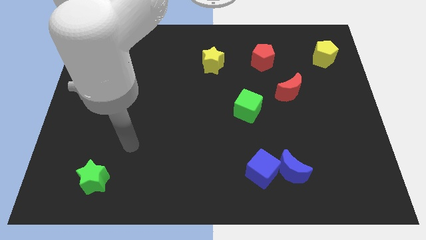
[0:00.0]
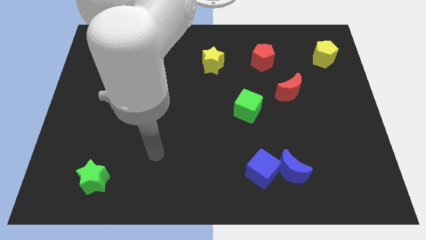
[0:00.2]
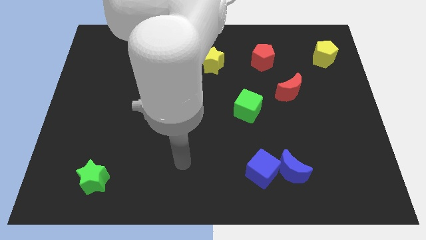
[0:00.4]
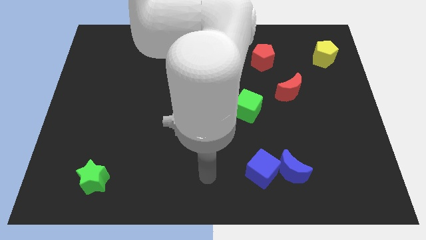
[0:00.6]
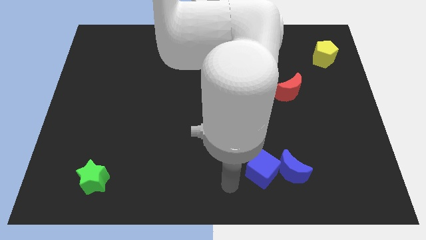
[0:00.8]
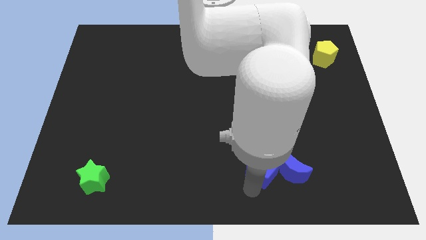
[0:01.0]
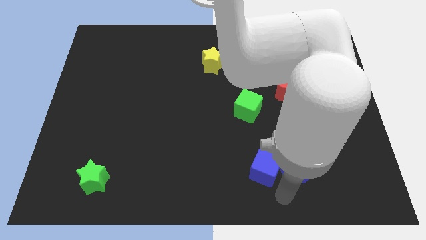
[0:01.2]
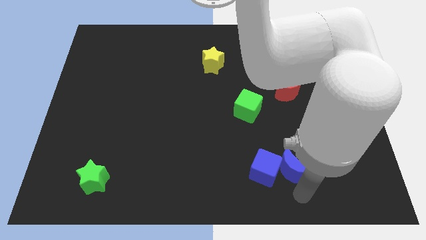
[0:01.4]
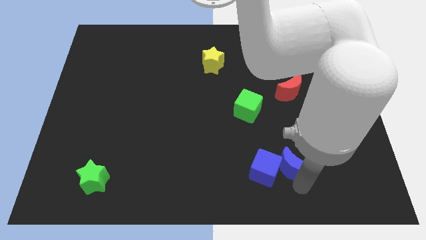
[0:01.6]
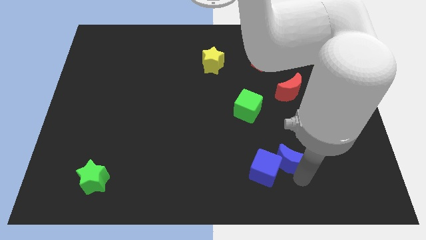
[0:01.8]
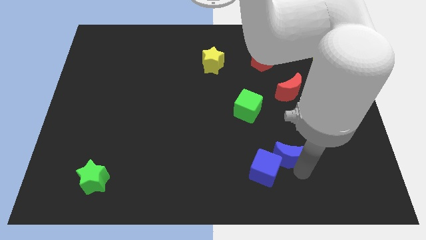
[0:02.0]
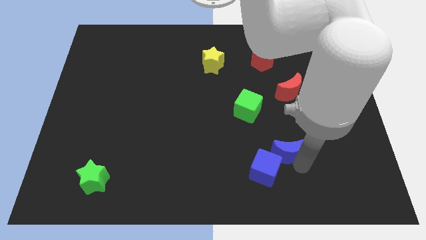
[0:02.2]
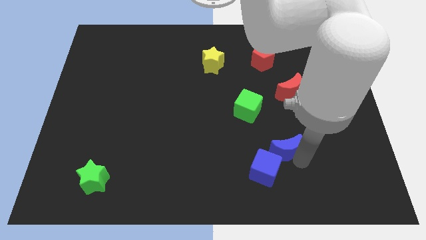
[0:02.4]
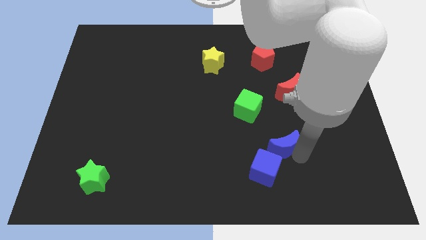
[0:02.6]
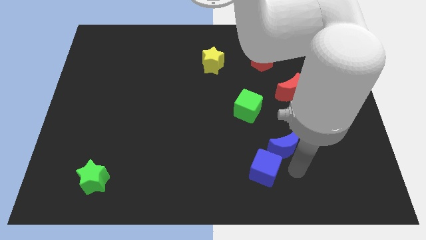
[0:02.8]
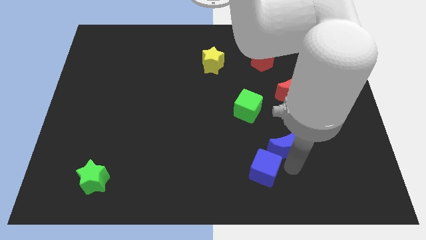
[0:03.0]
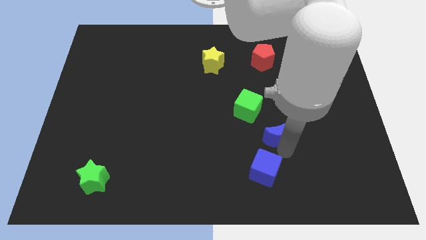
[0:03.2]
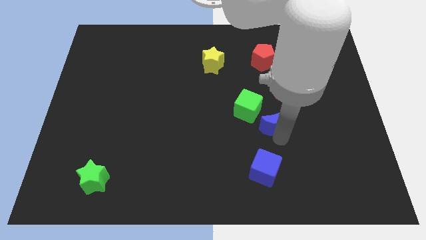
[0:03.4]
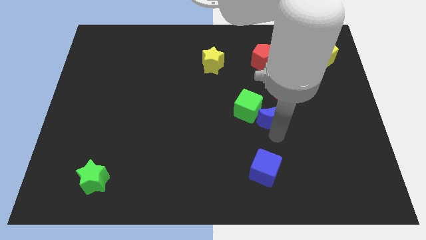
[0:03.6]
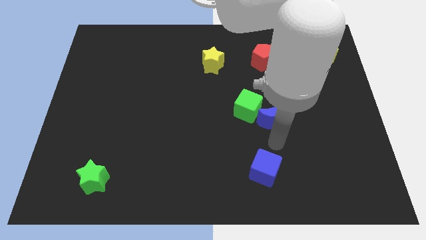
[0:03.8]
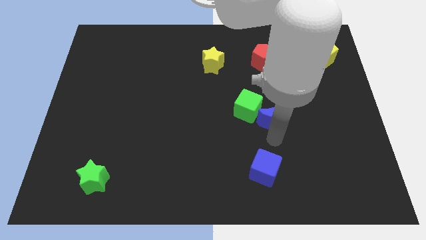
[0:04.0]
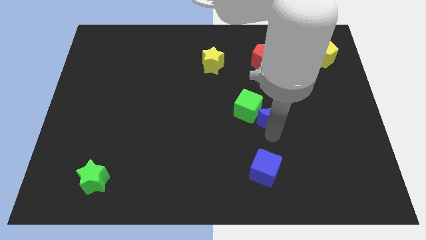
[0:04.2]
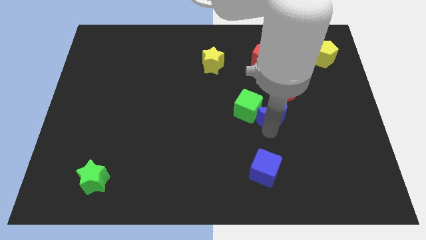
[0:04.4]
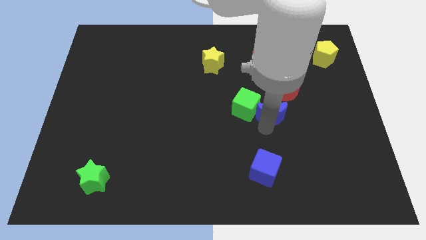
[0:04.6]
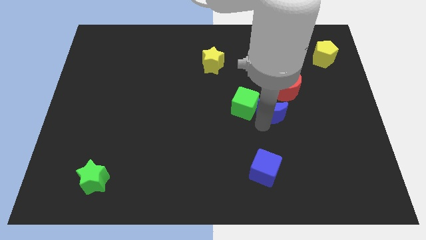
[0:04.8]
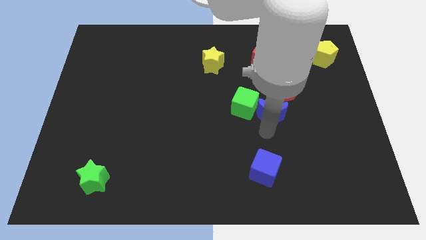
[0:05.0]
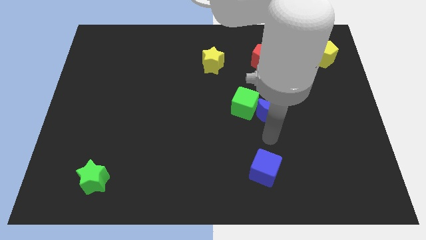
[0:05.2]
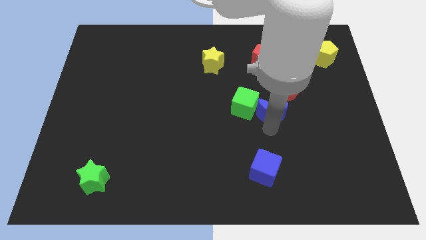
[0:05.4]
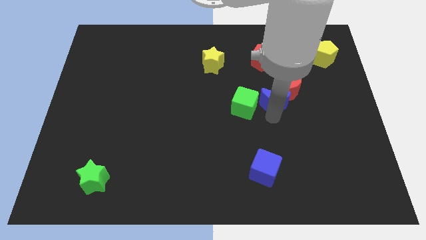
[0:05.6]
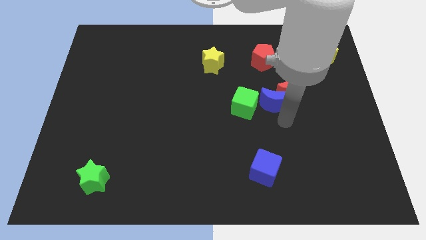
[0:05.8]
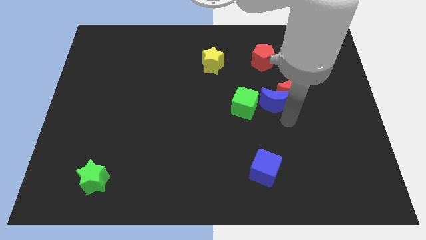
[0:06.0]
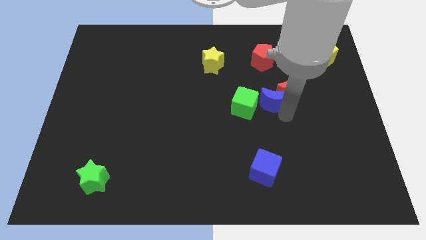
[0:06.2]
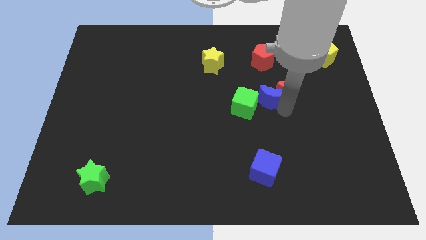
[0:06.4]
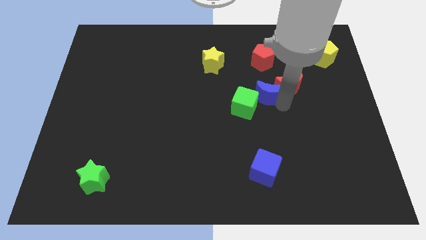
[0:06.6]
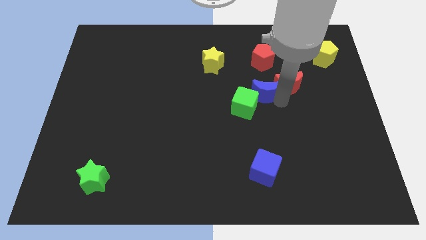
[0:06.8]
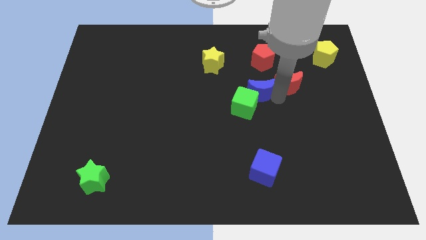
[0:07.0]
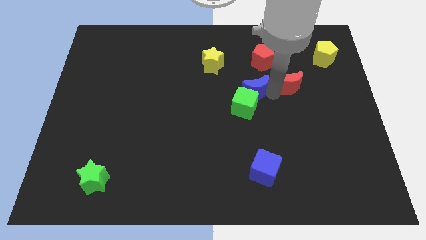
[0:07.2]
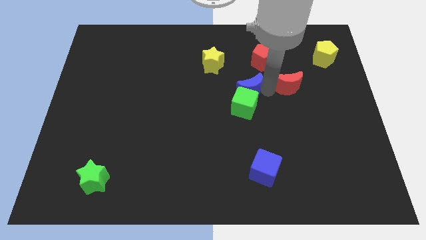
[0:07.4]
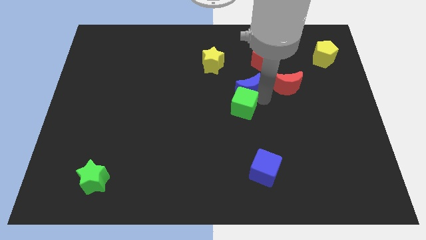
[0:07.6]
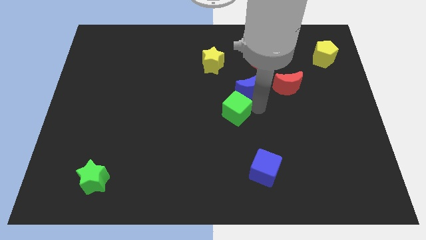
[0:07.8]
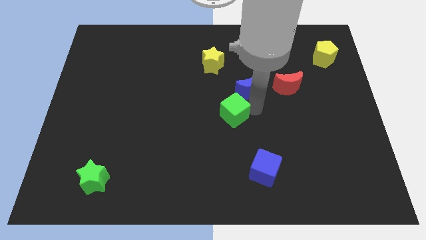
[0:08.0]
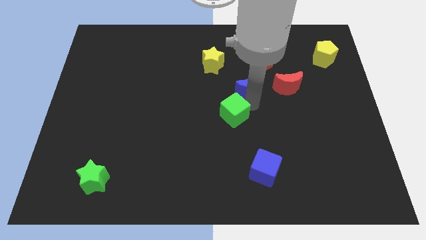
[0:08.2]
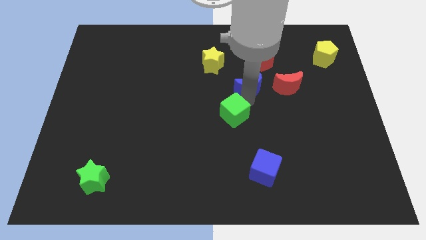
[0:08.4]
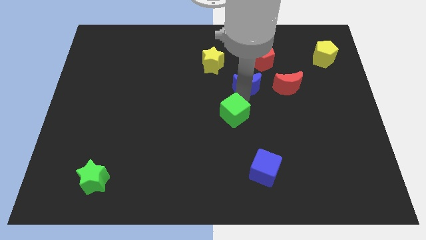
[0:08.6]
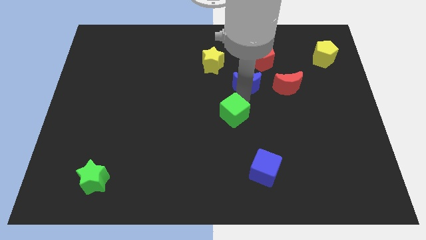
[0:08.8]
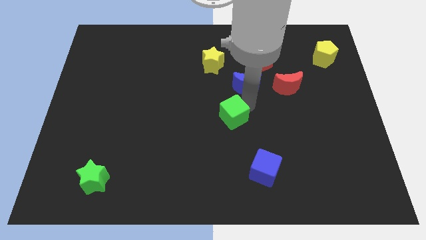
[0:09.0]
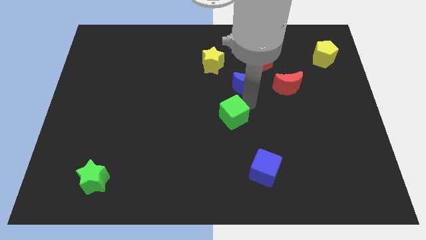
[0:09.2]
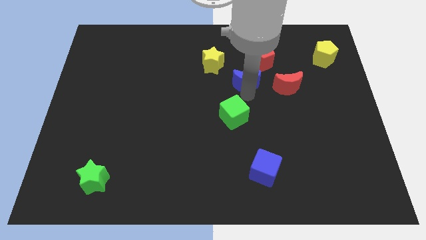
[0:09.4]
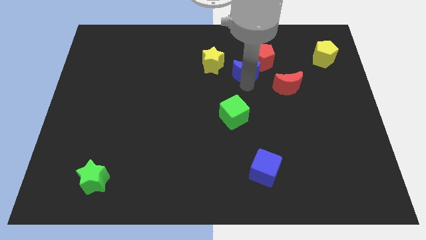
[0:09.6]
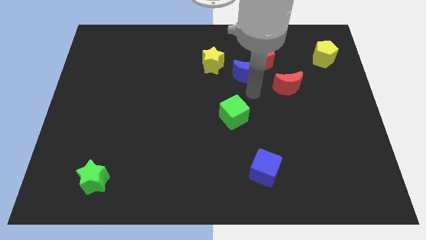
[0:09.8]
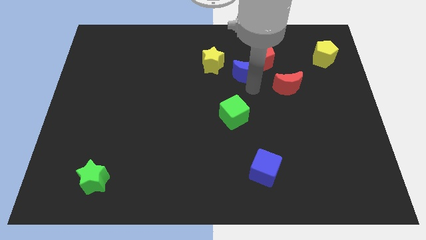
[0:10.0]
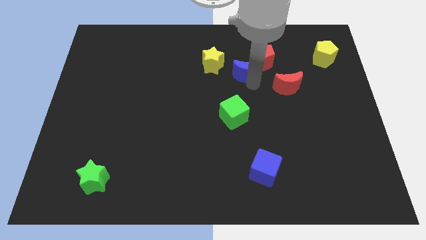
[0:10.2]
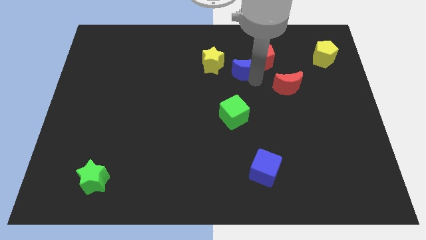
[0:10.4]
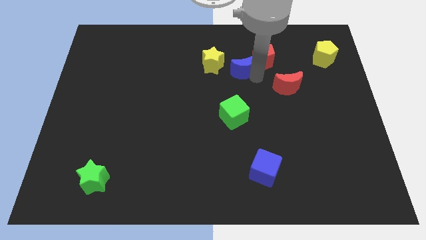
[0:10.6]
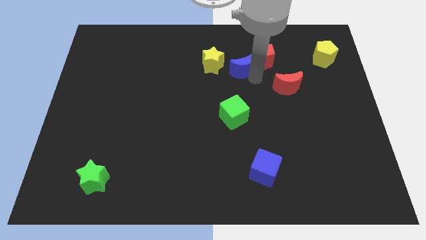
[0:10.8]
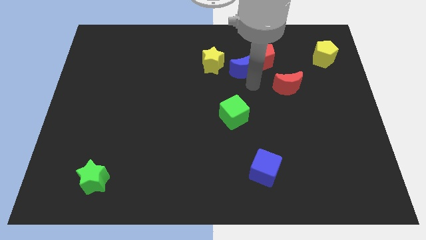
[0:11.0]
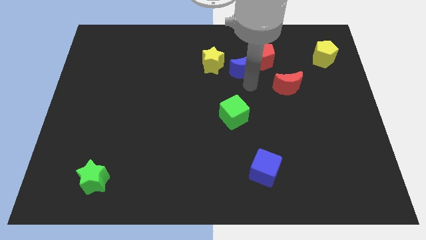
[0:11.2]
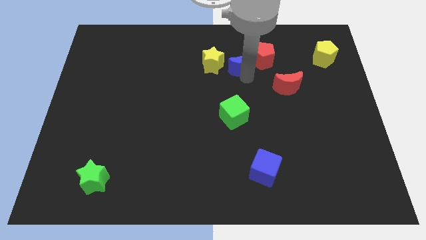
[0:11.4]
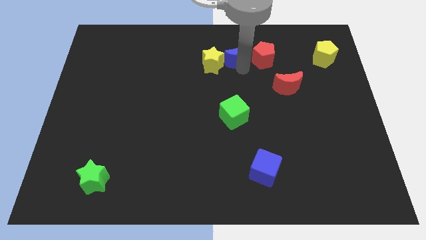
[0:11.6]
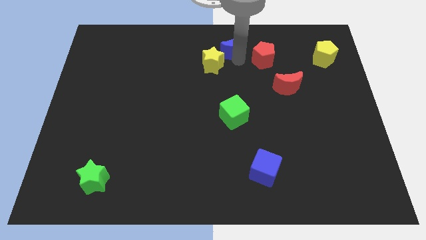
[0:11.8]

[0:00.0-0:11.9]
push the blue moon to the top

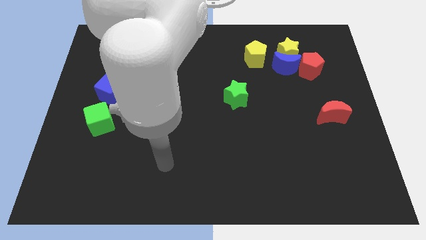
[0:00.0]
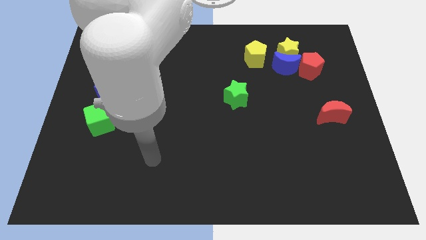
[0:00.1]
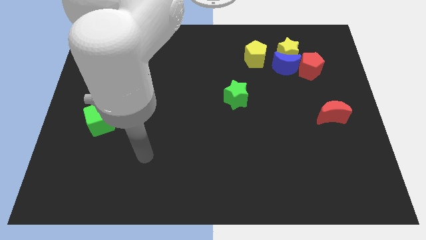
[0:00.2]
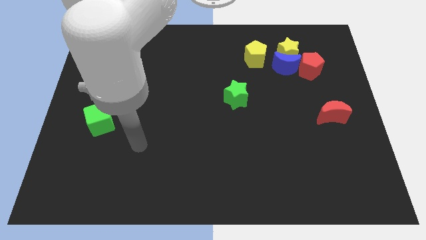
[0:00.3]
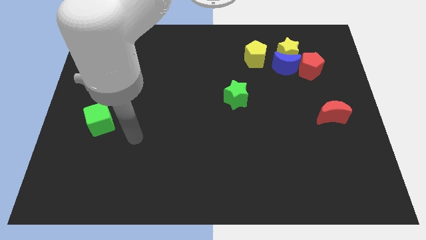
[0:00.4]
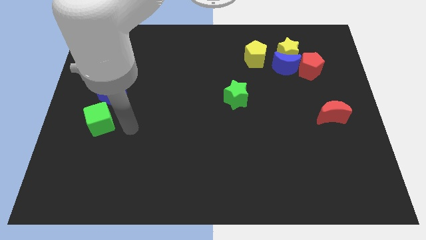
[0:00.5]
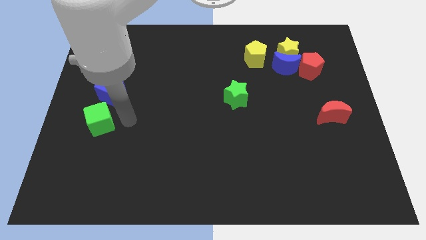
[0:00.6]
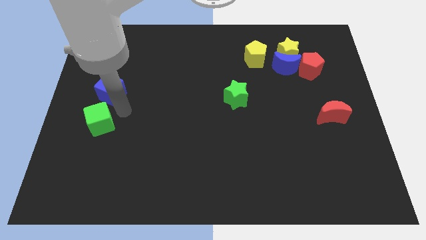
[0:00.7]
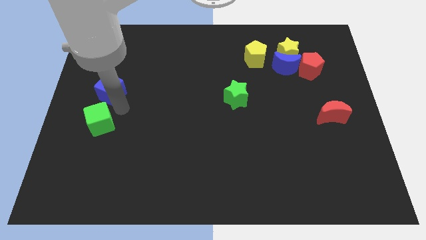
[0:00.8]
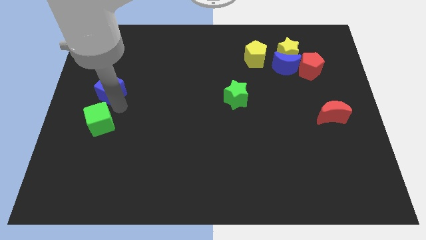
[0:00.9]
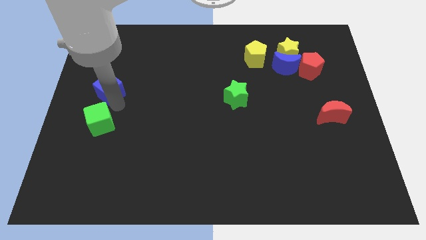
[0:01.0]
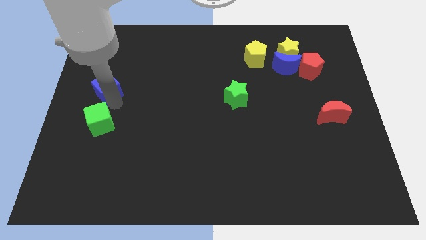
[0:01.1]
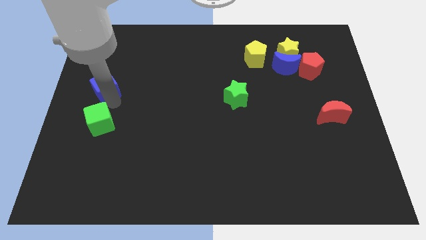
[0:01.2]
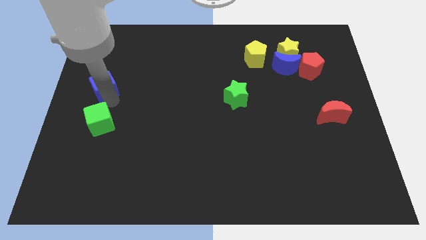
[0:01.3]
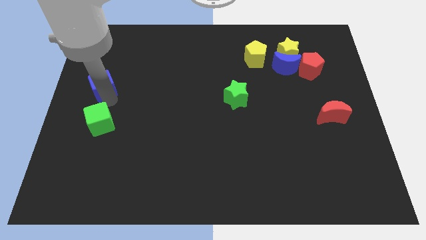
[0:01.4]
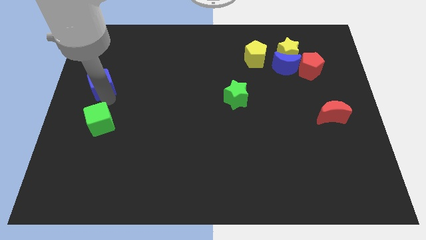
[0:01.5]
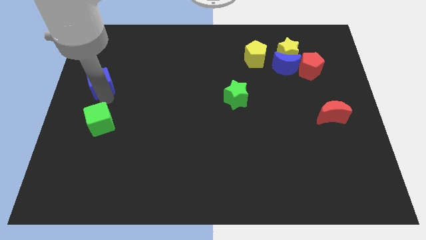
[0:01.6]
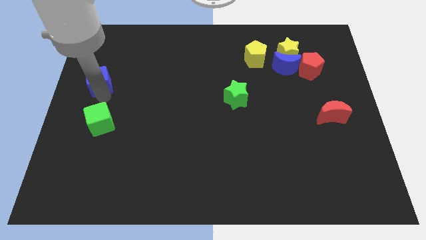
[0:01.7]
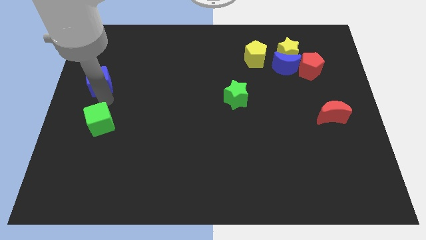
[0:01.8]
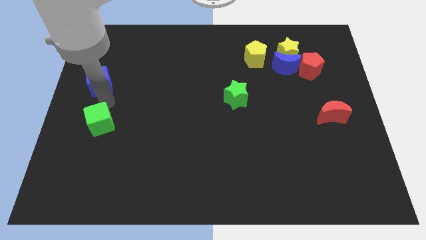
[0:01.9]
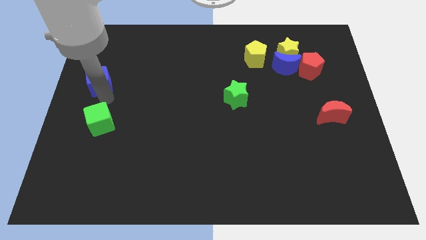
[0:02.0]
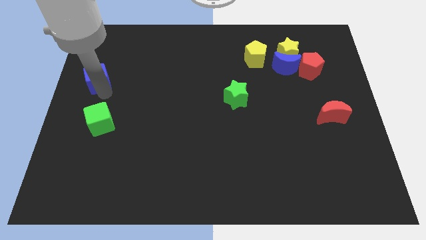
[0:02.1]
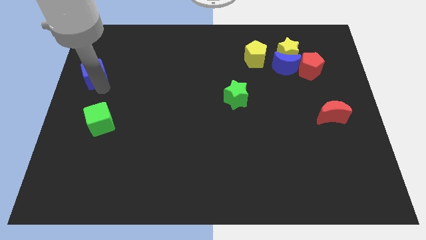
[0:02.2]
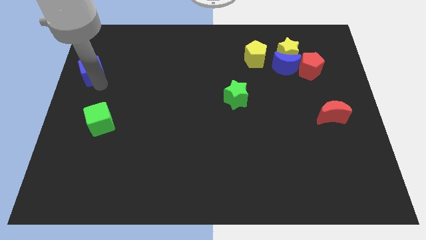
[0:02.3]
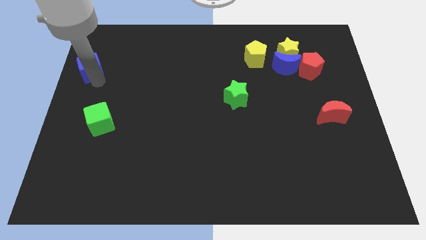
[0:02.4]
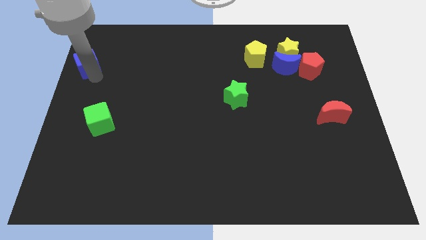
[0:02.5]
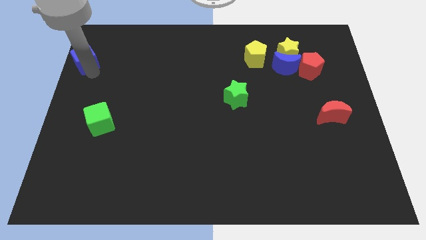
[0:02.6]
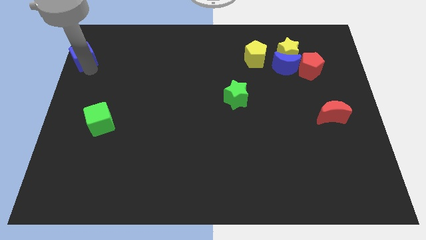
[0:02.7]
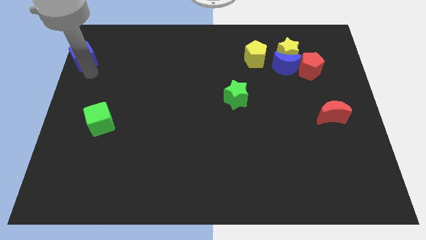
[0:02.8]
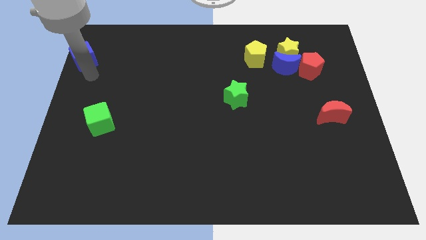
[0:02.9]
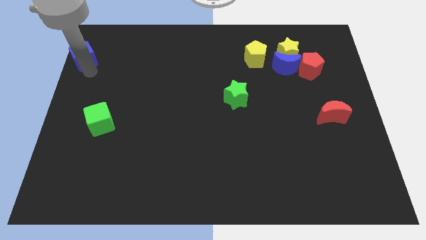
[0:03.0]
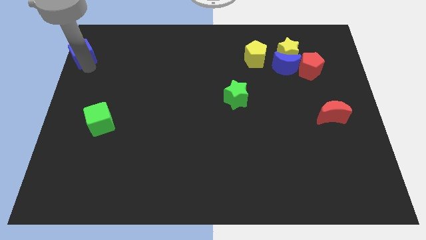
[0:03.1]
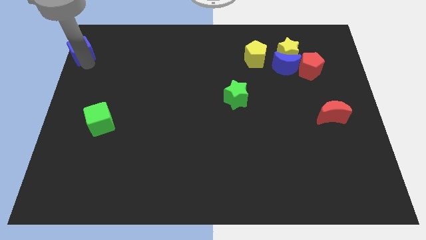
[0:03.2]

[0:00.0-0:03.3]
slide the blue cube to the top left corner
